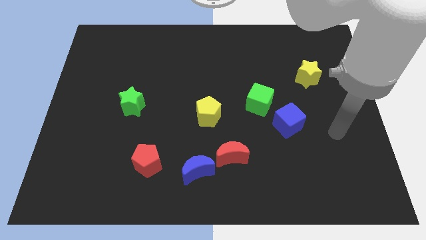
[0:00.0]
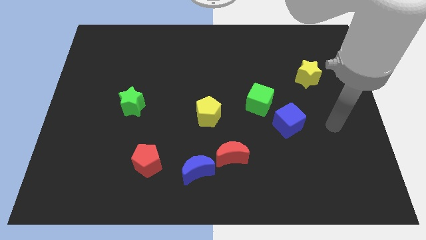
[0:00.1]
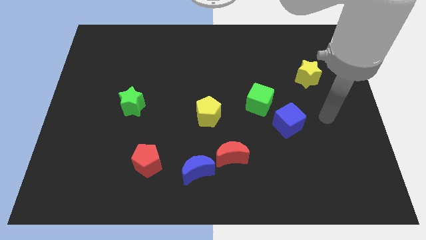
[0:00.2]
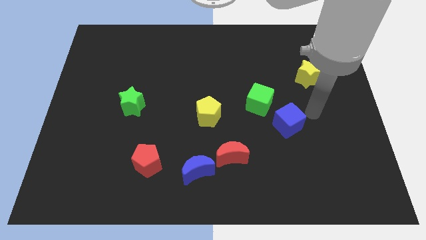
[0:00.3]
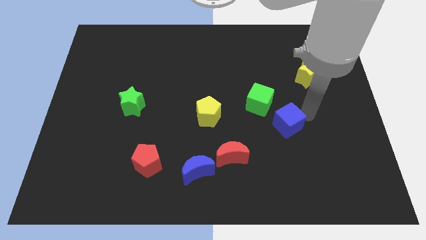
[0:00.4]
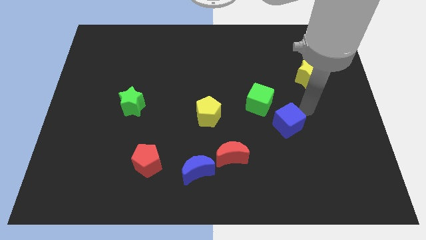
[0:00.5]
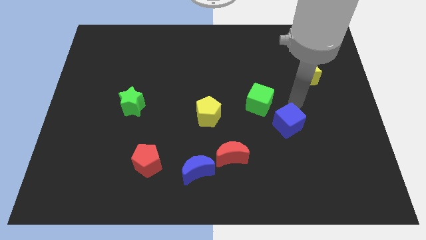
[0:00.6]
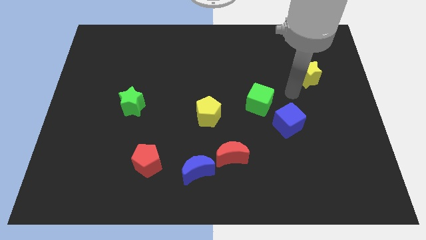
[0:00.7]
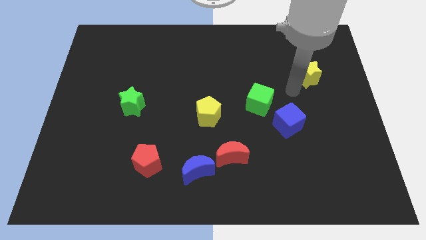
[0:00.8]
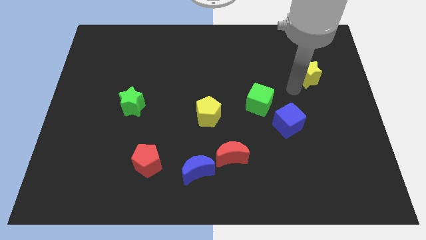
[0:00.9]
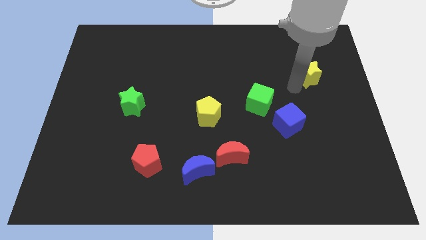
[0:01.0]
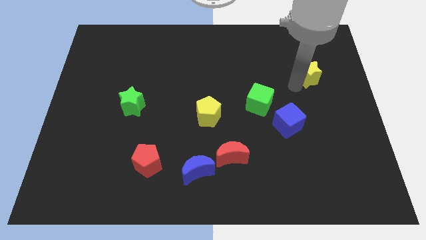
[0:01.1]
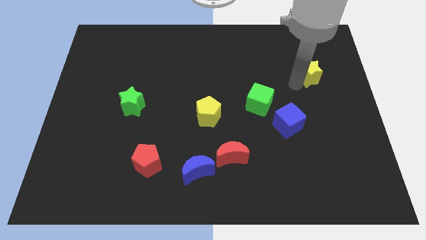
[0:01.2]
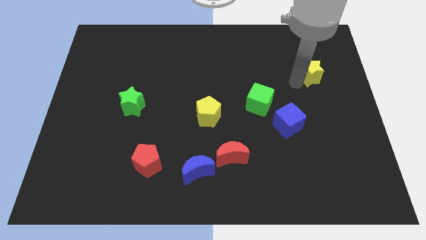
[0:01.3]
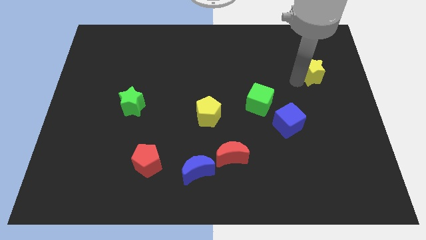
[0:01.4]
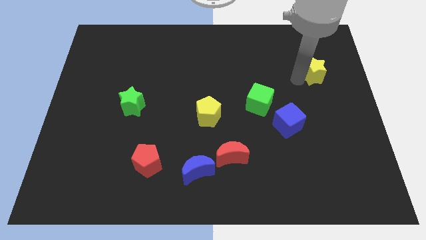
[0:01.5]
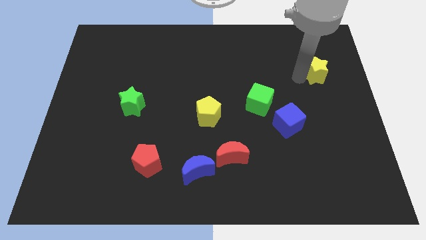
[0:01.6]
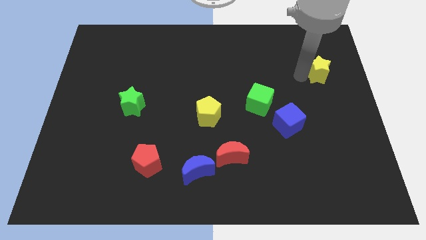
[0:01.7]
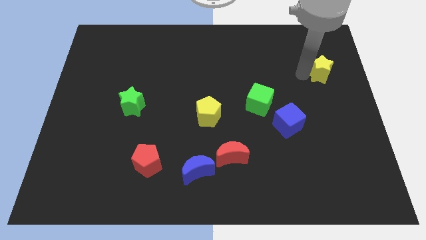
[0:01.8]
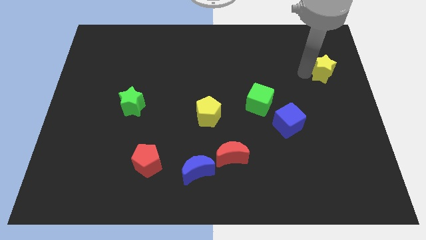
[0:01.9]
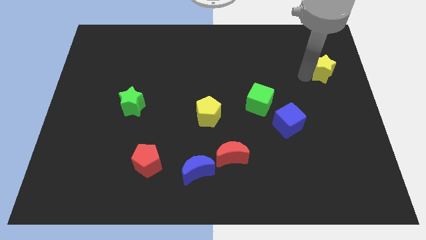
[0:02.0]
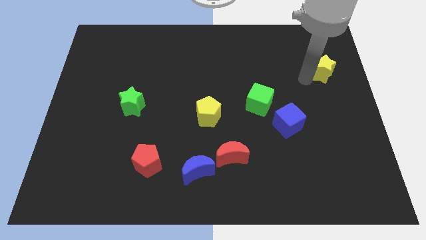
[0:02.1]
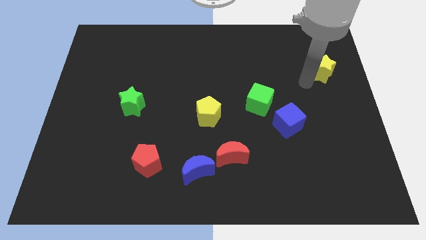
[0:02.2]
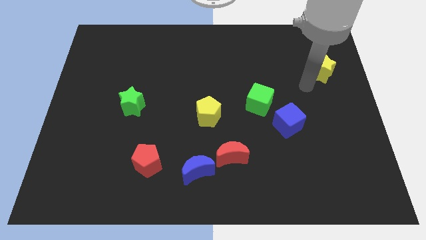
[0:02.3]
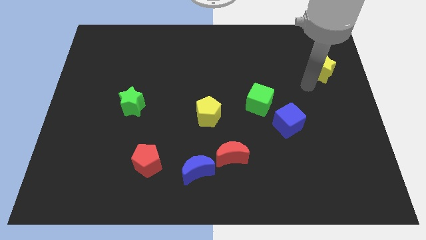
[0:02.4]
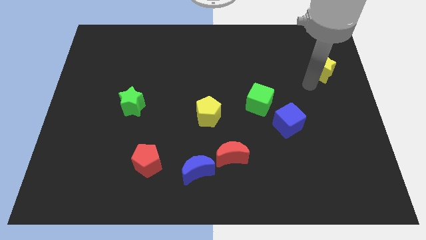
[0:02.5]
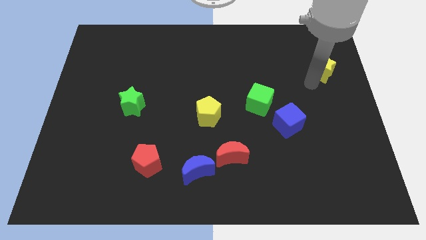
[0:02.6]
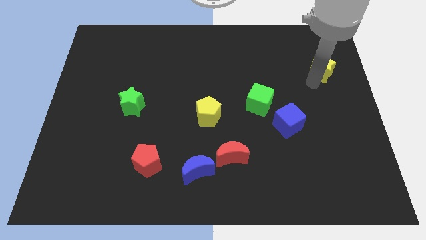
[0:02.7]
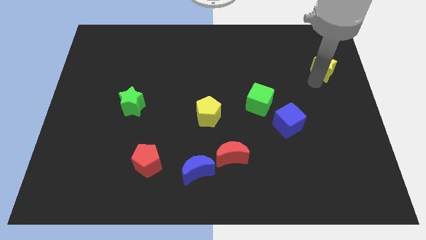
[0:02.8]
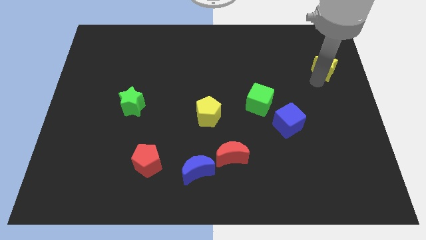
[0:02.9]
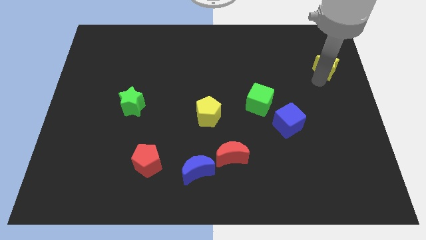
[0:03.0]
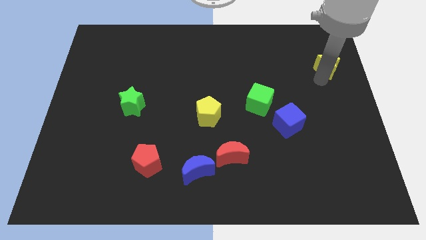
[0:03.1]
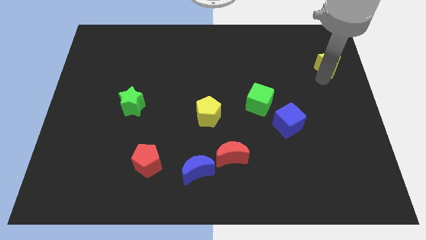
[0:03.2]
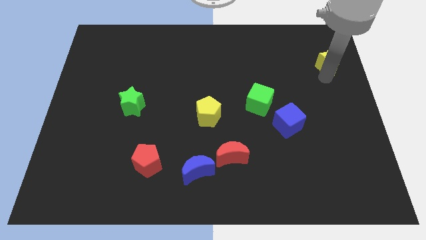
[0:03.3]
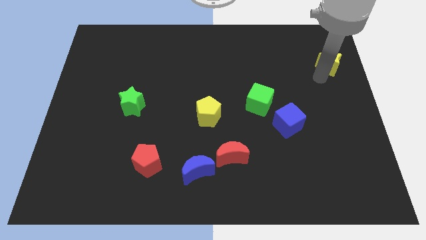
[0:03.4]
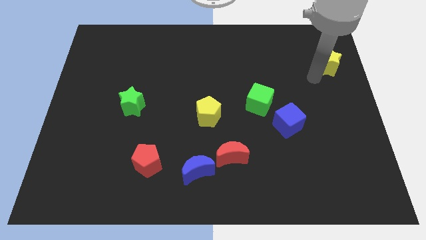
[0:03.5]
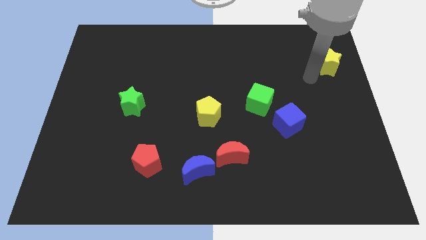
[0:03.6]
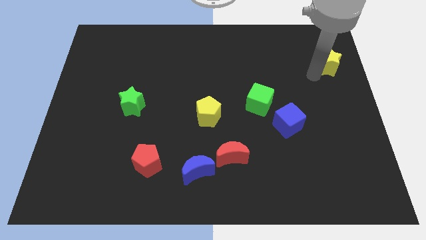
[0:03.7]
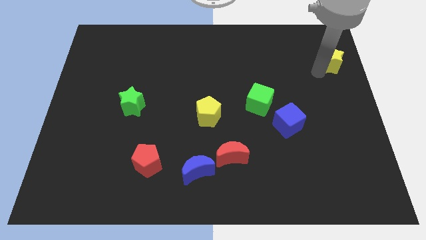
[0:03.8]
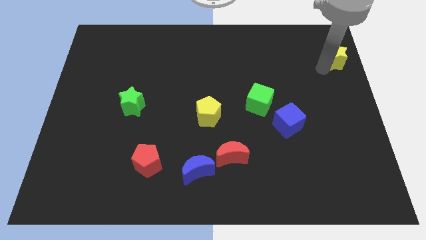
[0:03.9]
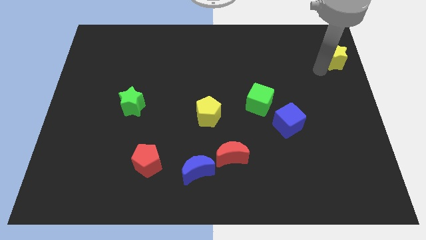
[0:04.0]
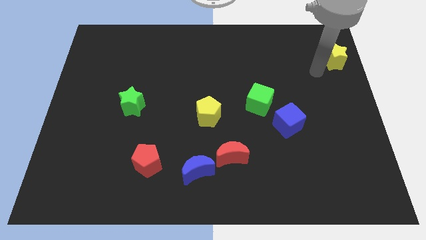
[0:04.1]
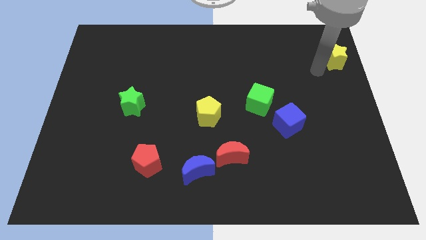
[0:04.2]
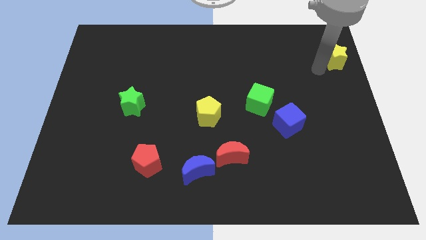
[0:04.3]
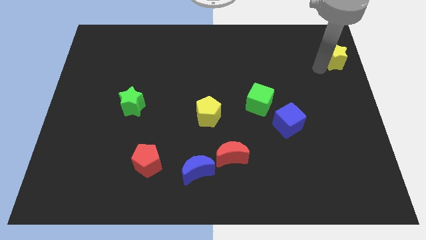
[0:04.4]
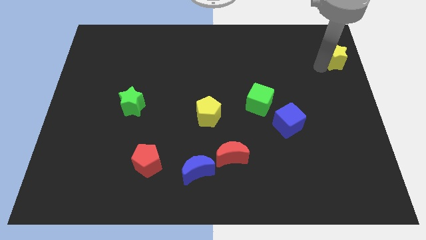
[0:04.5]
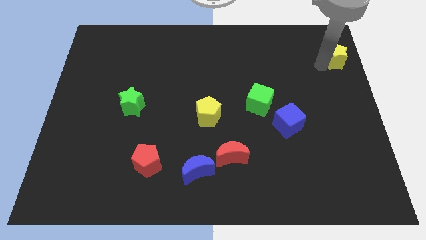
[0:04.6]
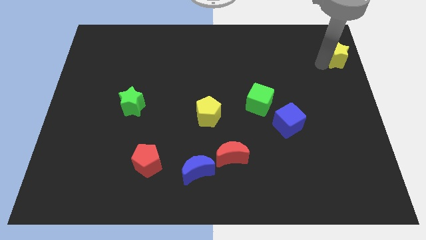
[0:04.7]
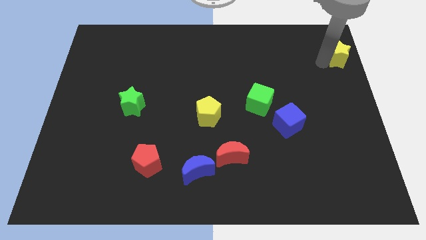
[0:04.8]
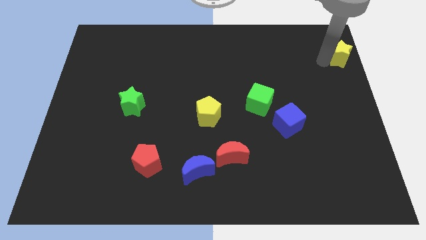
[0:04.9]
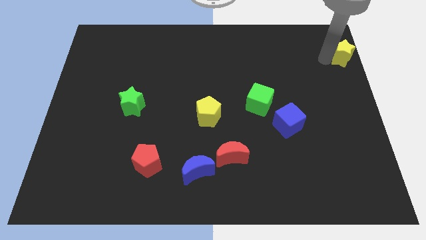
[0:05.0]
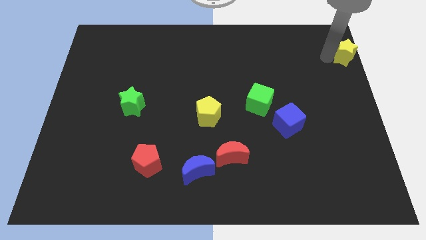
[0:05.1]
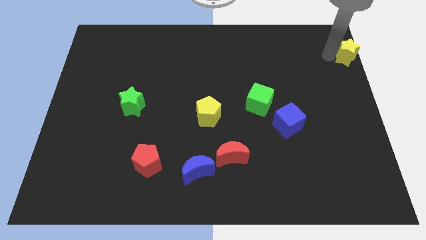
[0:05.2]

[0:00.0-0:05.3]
push the yellow star to the top right corner
